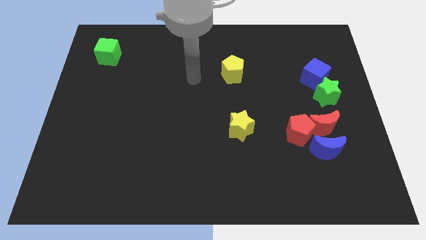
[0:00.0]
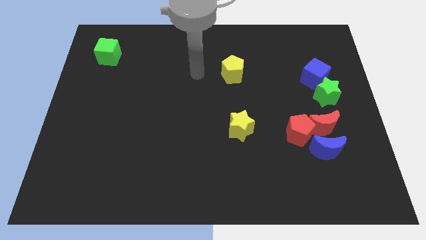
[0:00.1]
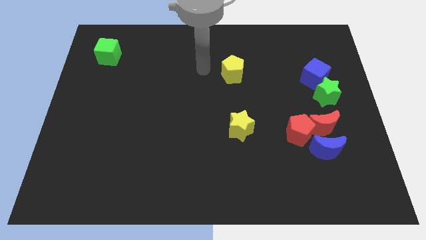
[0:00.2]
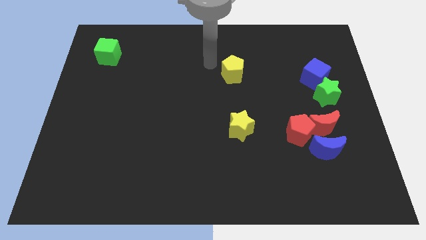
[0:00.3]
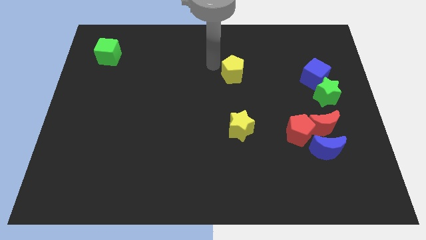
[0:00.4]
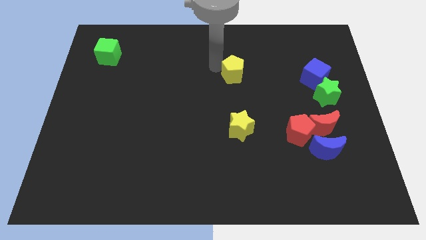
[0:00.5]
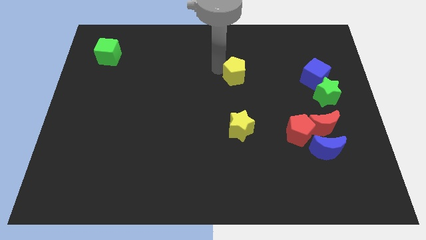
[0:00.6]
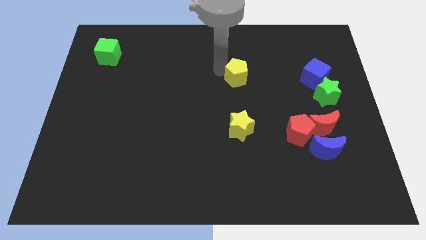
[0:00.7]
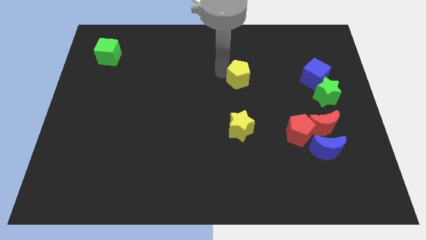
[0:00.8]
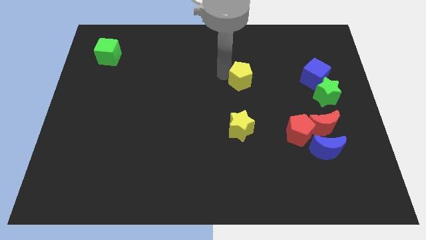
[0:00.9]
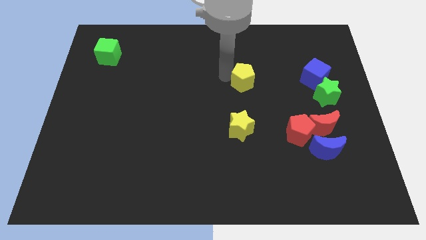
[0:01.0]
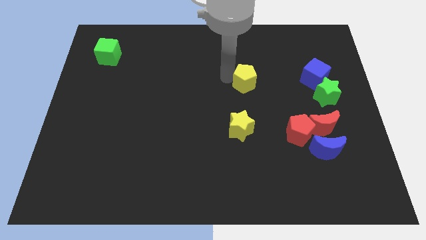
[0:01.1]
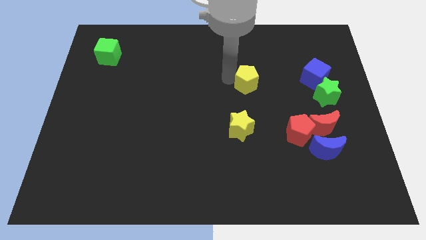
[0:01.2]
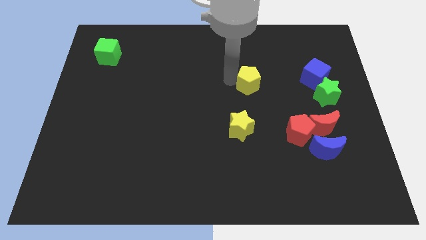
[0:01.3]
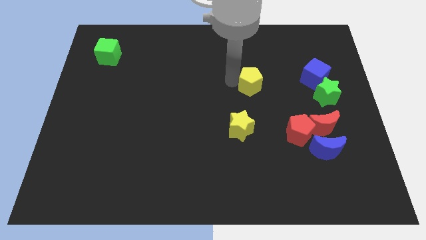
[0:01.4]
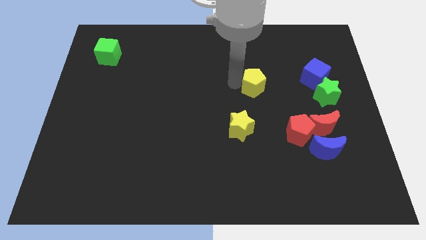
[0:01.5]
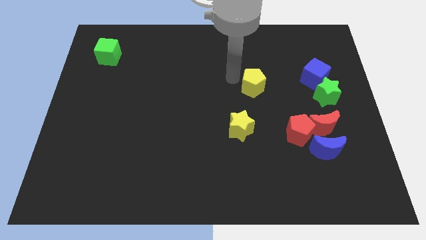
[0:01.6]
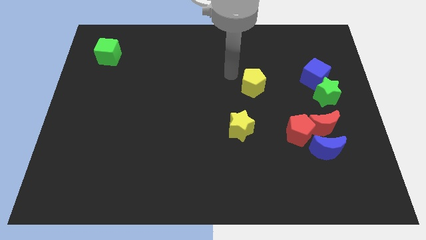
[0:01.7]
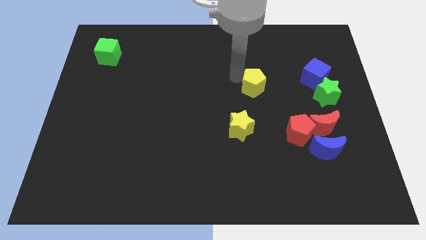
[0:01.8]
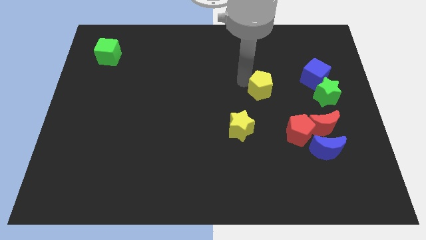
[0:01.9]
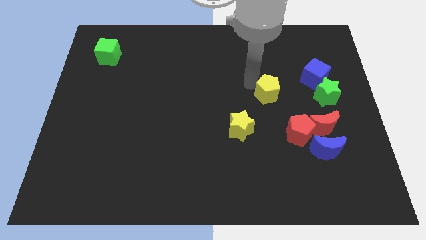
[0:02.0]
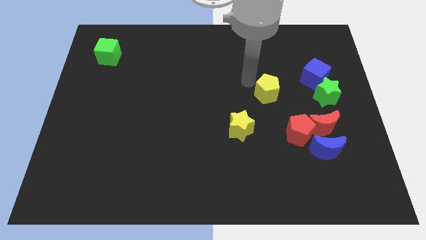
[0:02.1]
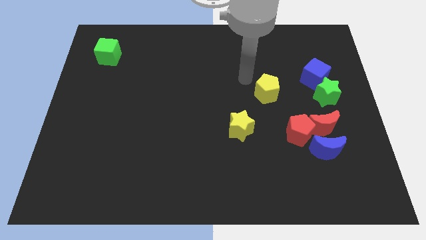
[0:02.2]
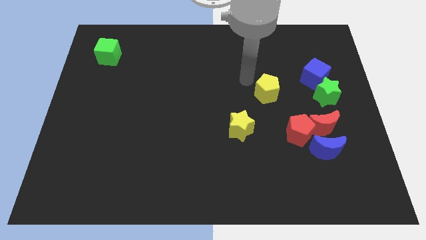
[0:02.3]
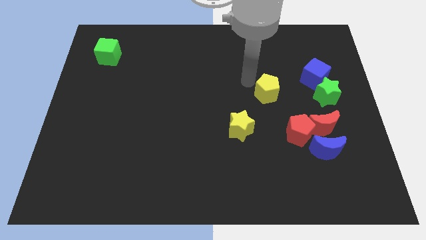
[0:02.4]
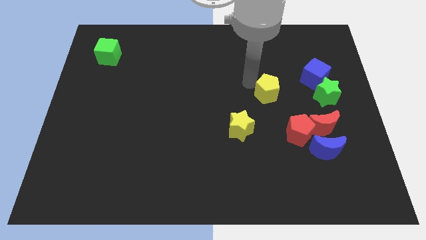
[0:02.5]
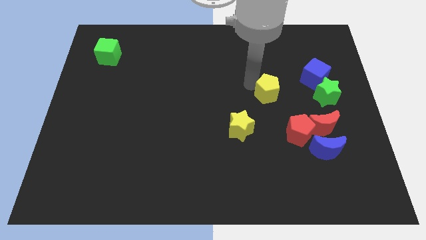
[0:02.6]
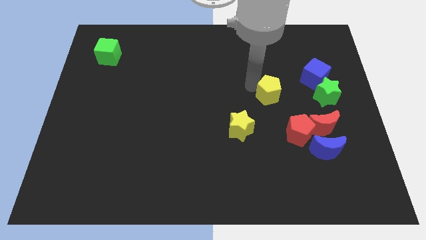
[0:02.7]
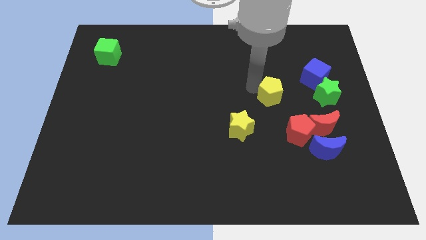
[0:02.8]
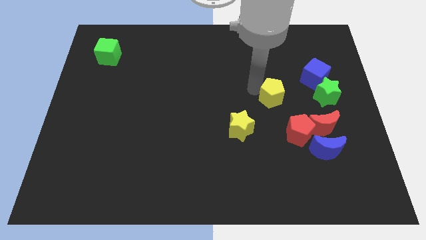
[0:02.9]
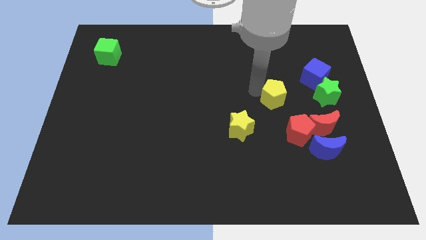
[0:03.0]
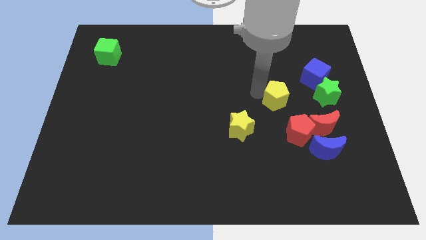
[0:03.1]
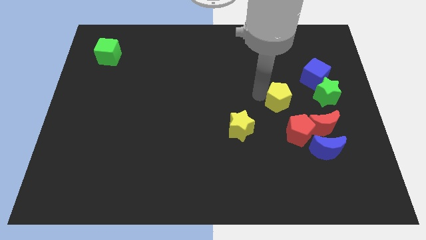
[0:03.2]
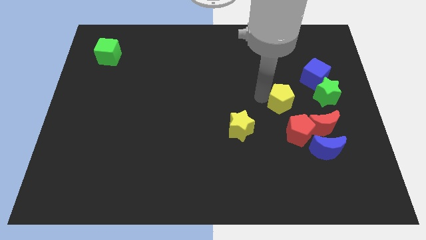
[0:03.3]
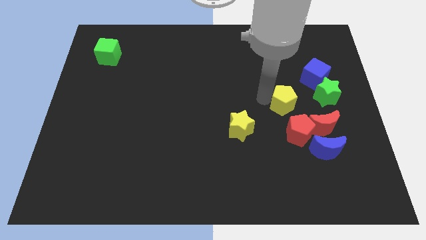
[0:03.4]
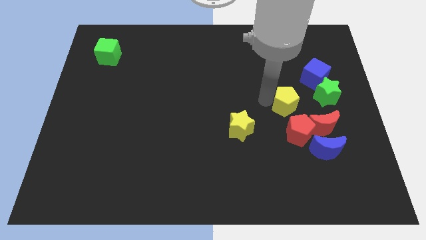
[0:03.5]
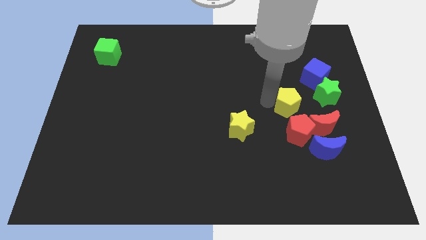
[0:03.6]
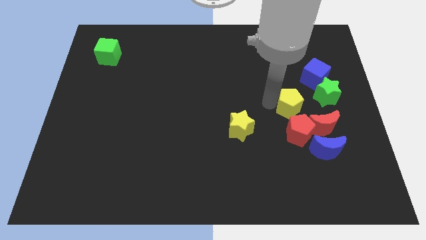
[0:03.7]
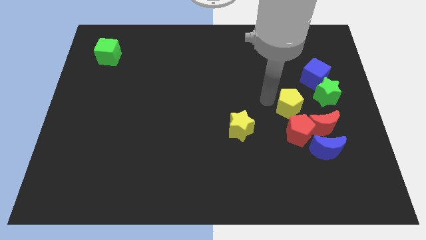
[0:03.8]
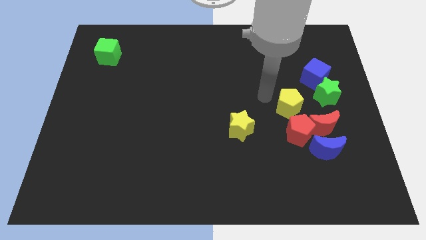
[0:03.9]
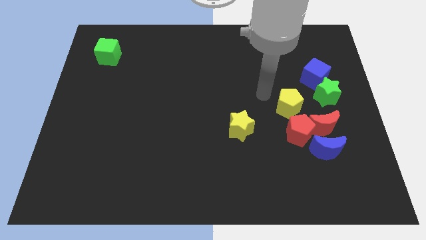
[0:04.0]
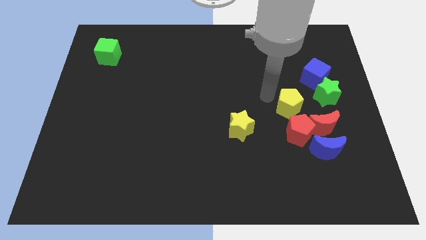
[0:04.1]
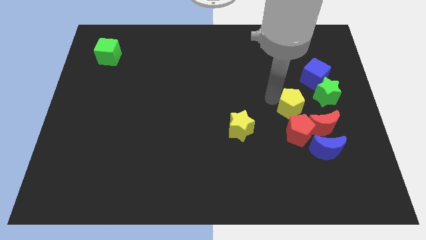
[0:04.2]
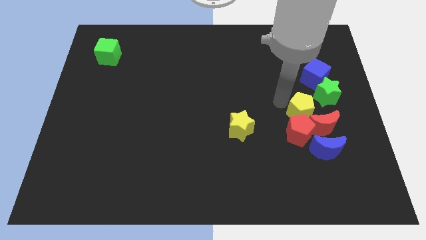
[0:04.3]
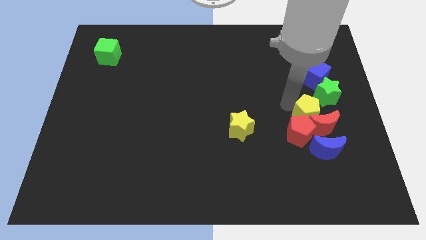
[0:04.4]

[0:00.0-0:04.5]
put the yellow pentagon to the red moon

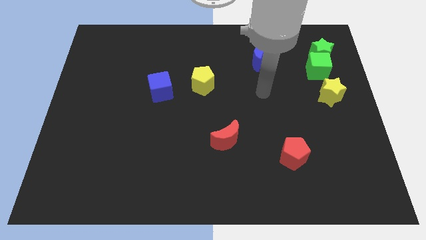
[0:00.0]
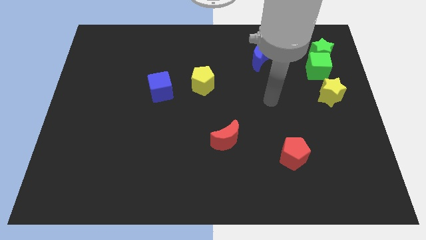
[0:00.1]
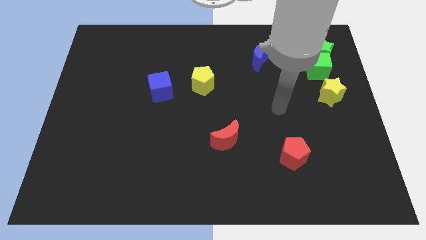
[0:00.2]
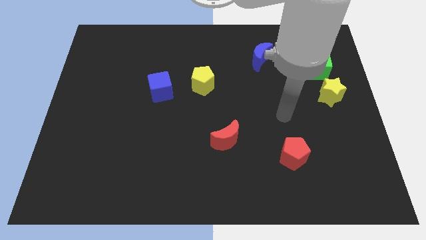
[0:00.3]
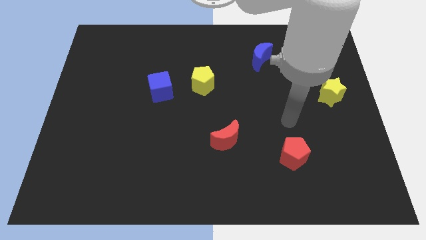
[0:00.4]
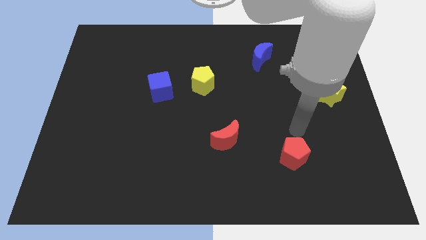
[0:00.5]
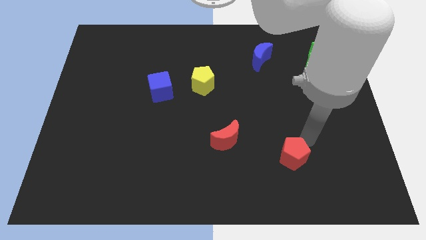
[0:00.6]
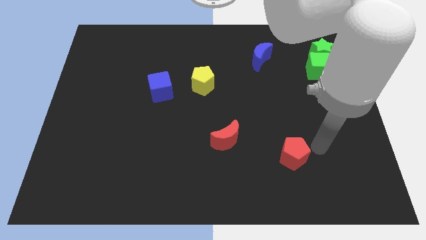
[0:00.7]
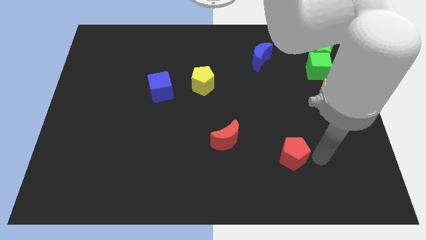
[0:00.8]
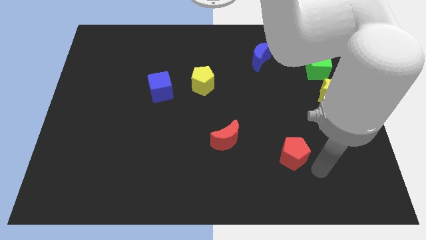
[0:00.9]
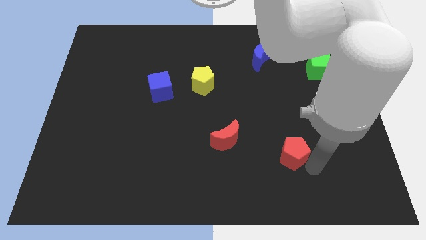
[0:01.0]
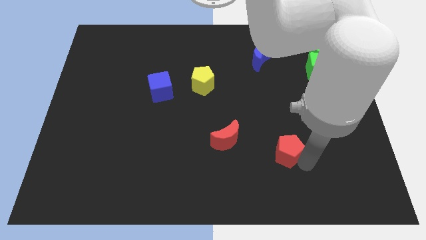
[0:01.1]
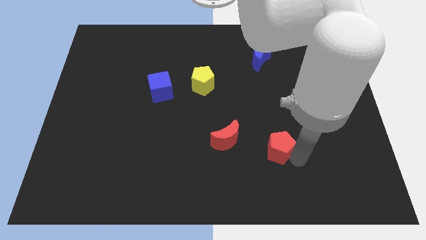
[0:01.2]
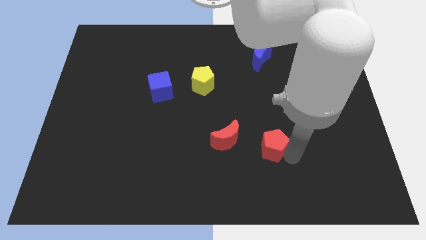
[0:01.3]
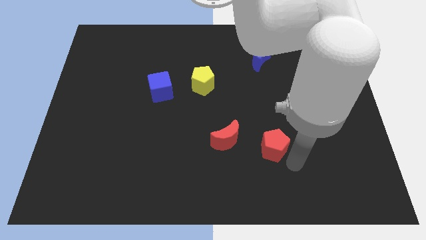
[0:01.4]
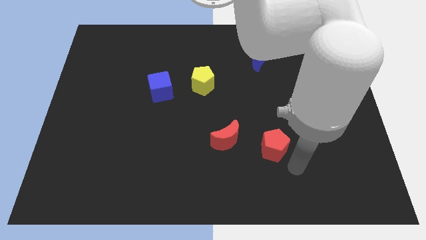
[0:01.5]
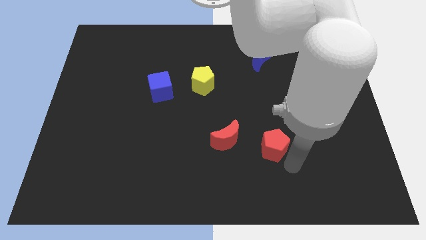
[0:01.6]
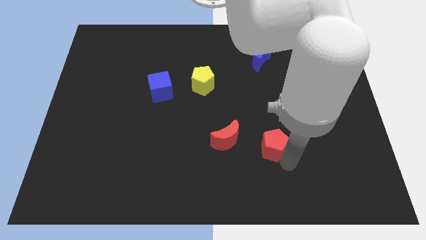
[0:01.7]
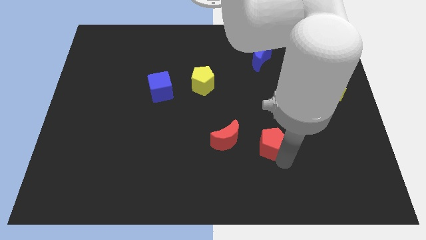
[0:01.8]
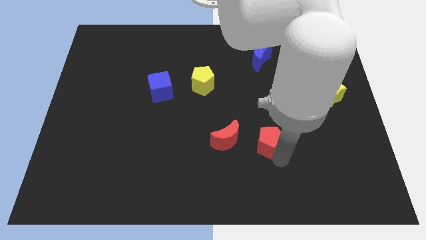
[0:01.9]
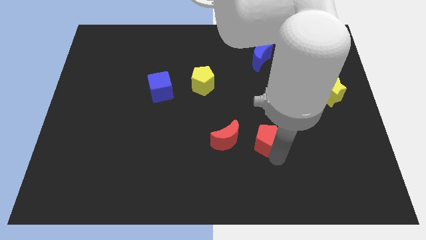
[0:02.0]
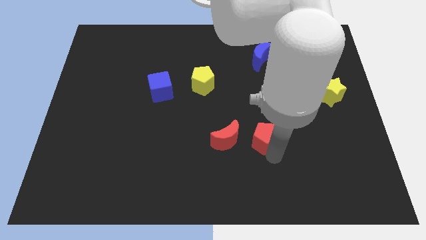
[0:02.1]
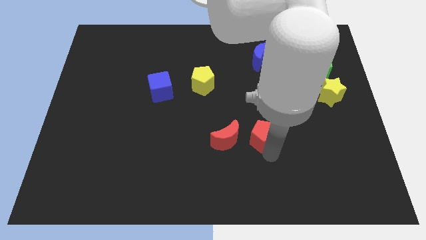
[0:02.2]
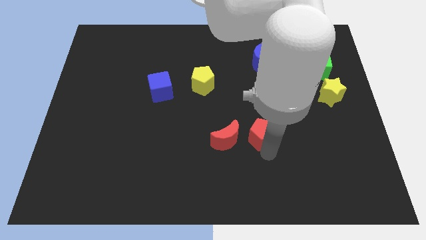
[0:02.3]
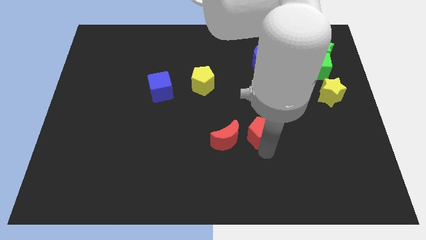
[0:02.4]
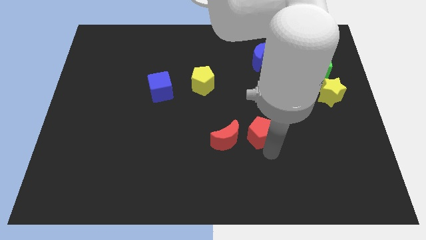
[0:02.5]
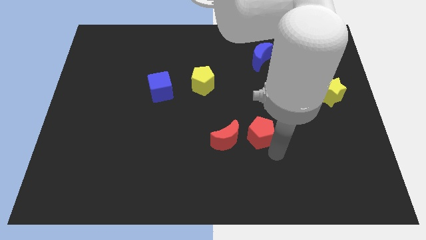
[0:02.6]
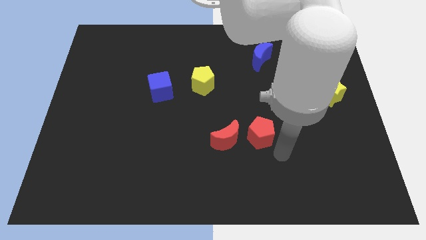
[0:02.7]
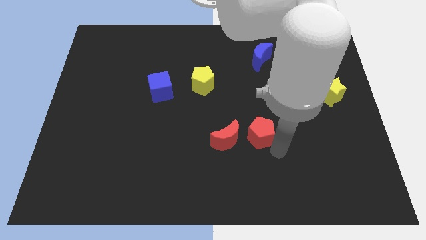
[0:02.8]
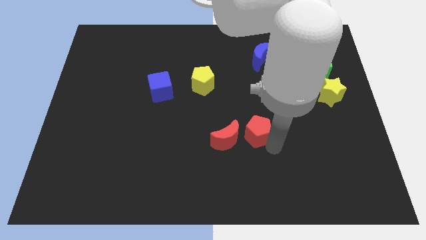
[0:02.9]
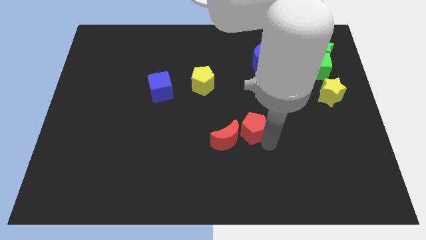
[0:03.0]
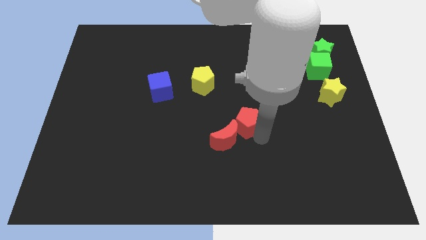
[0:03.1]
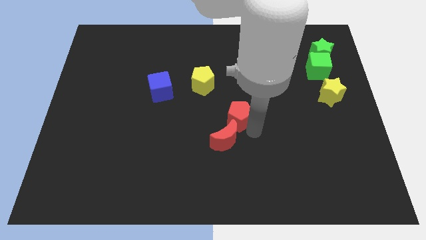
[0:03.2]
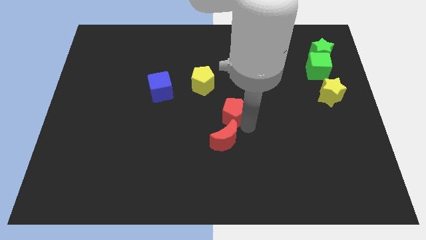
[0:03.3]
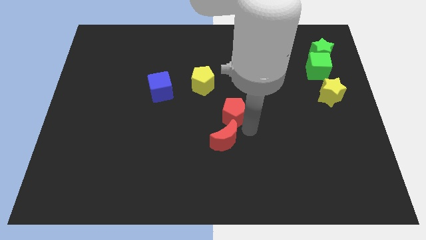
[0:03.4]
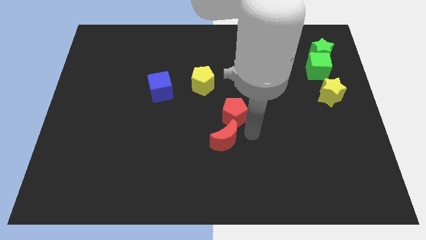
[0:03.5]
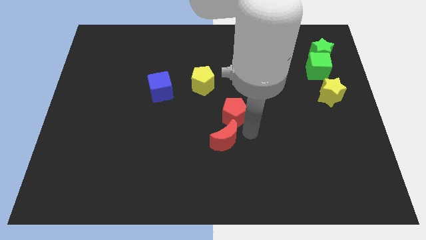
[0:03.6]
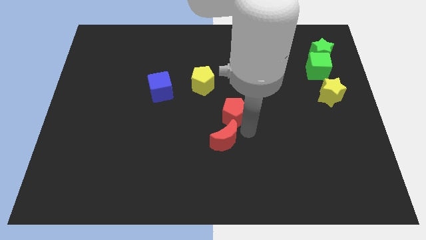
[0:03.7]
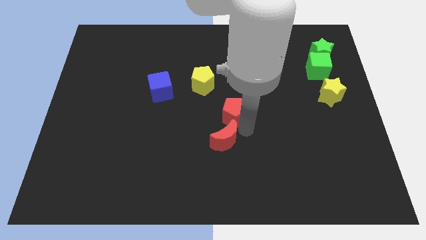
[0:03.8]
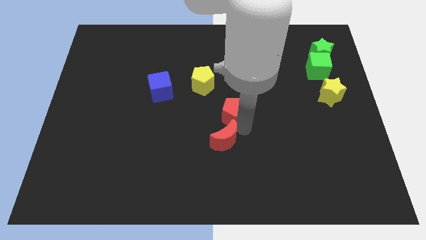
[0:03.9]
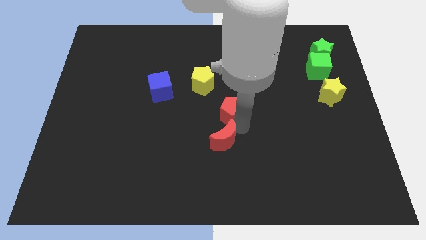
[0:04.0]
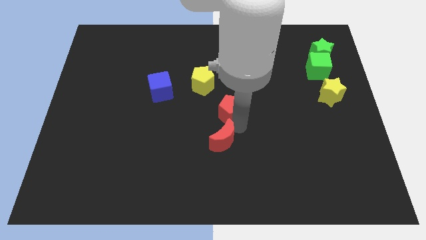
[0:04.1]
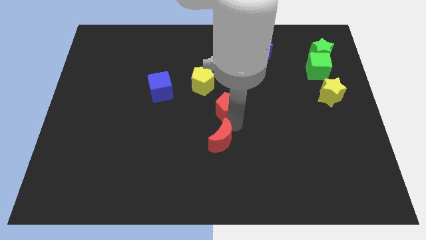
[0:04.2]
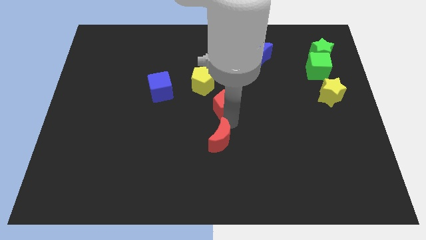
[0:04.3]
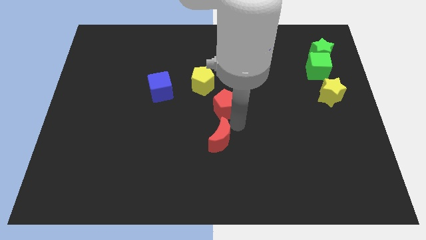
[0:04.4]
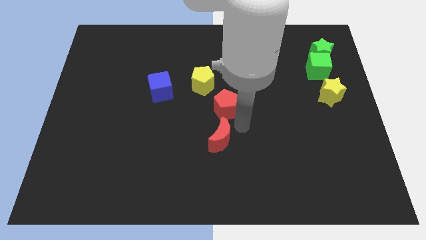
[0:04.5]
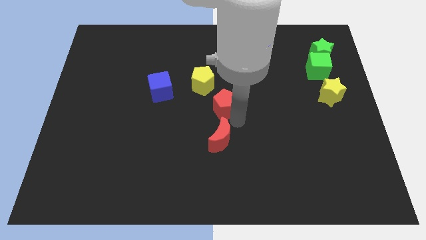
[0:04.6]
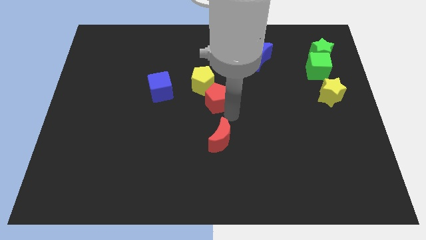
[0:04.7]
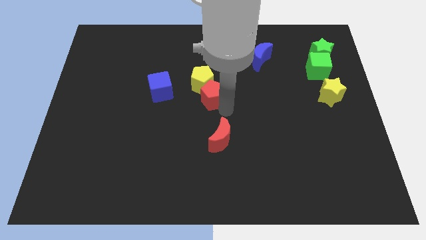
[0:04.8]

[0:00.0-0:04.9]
push the red pentagon next to the yellow pentagon
